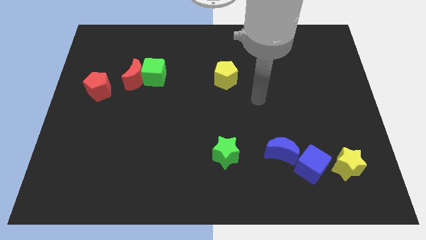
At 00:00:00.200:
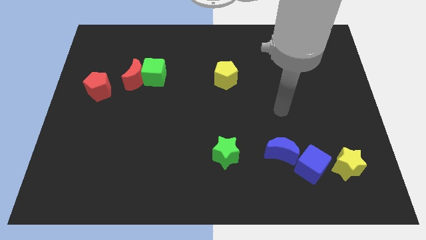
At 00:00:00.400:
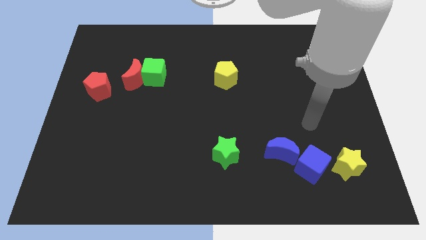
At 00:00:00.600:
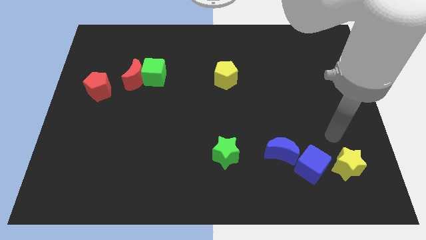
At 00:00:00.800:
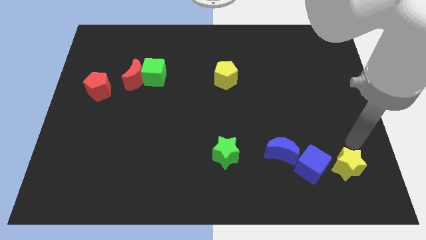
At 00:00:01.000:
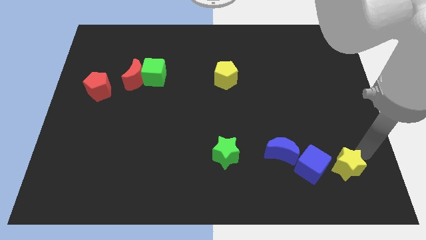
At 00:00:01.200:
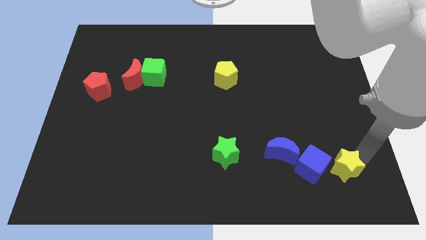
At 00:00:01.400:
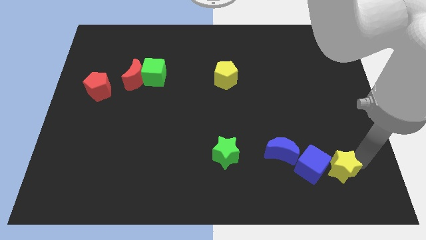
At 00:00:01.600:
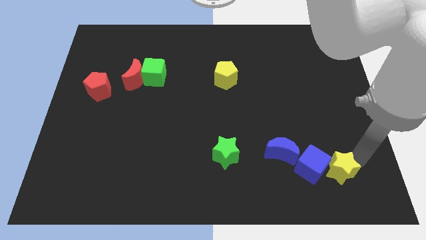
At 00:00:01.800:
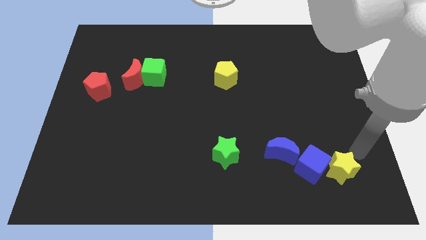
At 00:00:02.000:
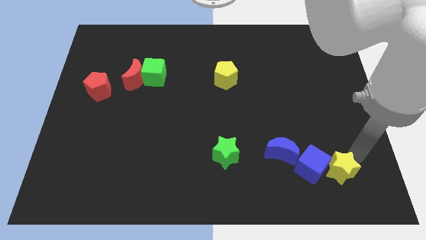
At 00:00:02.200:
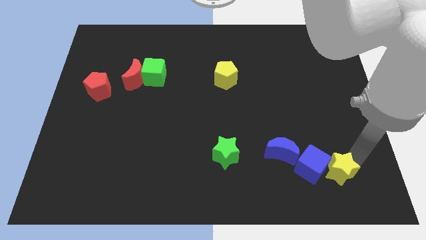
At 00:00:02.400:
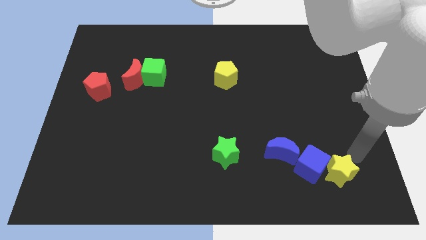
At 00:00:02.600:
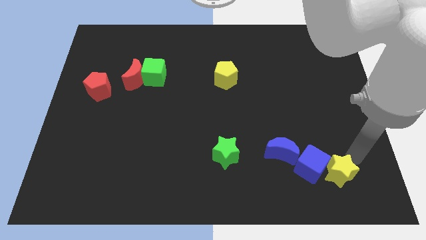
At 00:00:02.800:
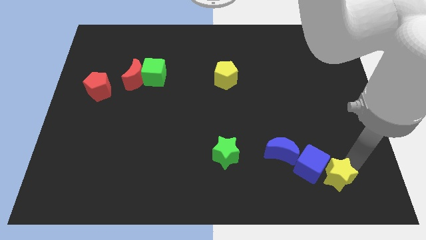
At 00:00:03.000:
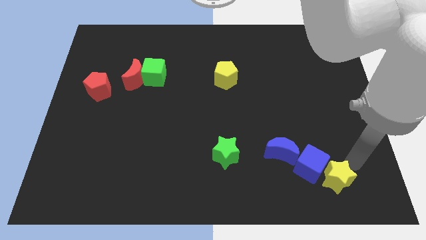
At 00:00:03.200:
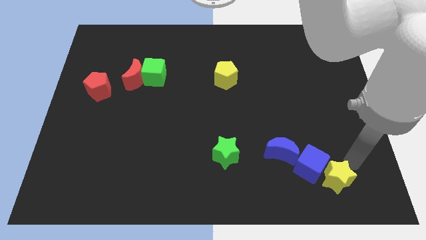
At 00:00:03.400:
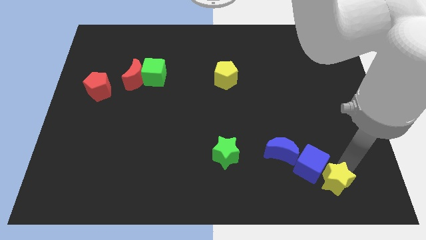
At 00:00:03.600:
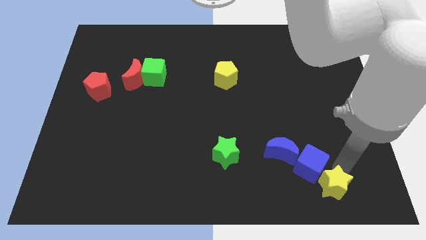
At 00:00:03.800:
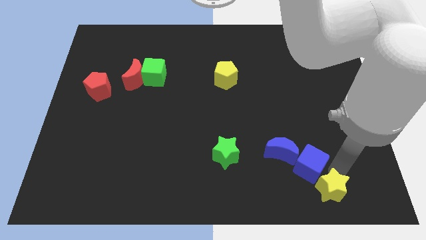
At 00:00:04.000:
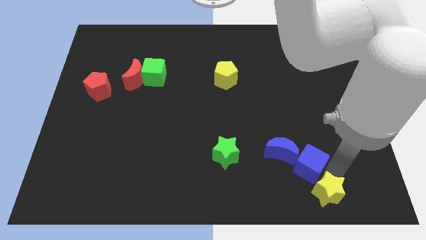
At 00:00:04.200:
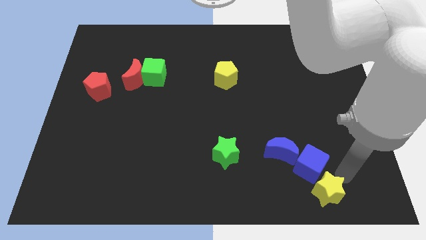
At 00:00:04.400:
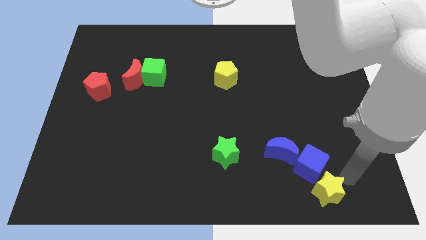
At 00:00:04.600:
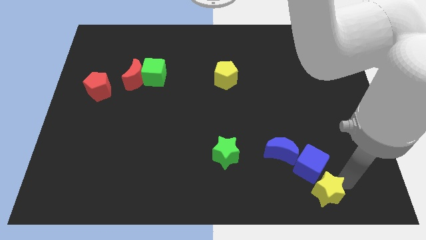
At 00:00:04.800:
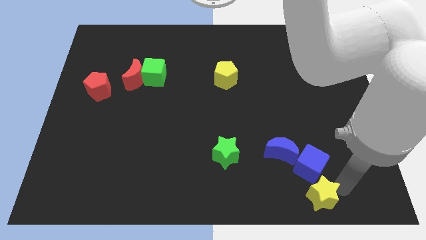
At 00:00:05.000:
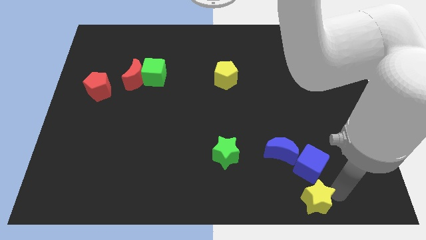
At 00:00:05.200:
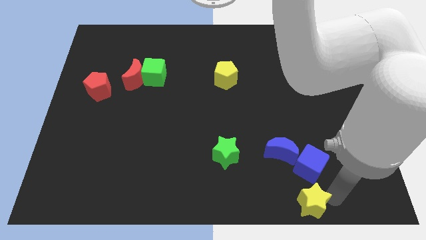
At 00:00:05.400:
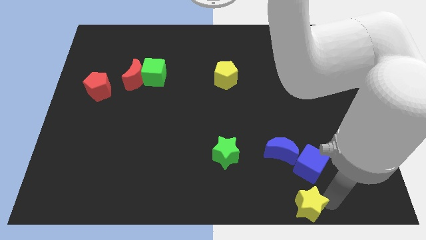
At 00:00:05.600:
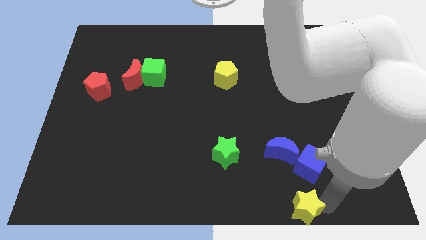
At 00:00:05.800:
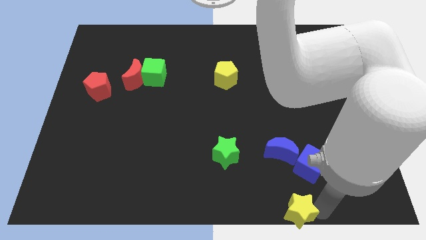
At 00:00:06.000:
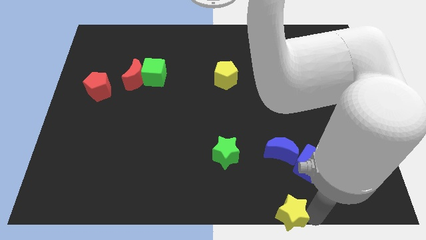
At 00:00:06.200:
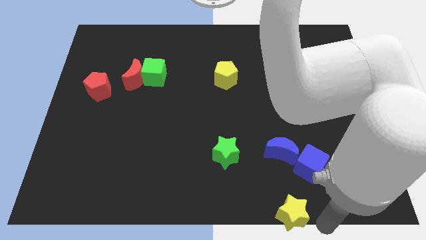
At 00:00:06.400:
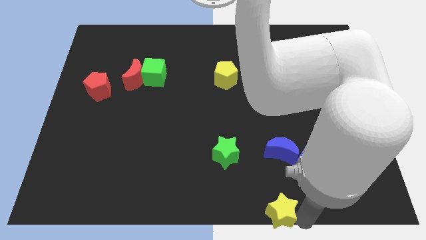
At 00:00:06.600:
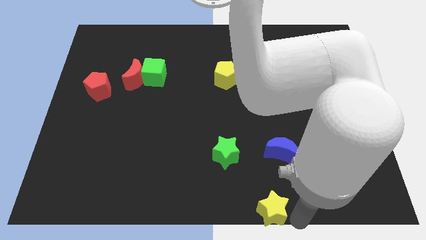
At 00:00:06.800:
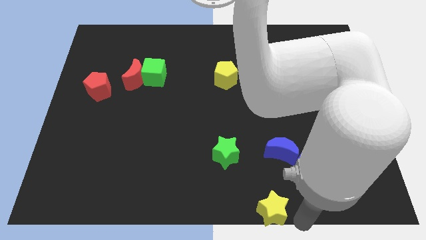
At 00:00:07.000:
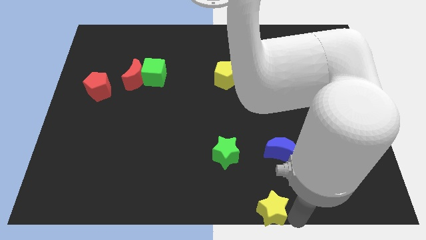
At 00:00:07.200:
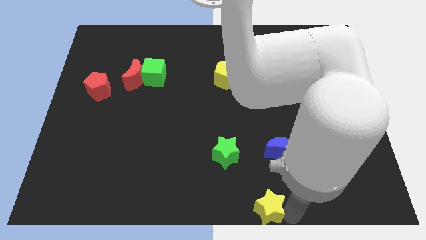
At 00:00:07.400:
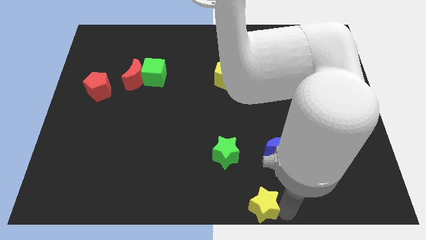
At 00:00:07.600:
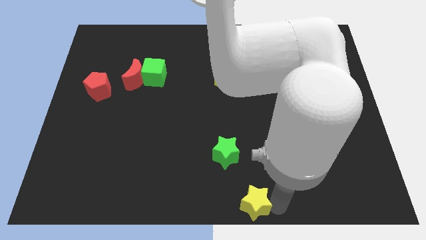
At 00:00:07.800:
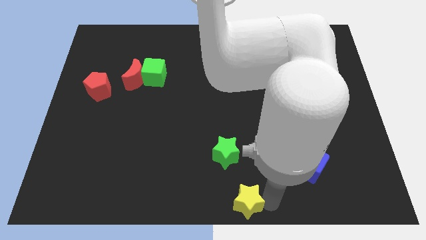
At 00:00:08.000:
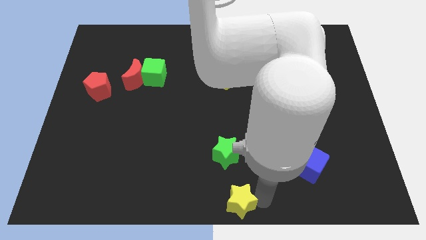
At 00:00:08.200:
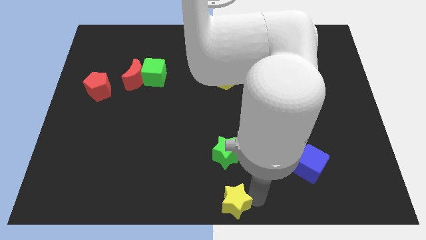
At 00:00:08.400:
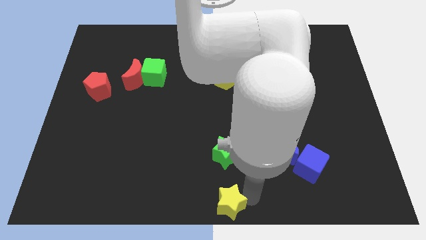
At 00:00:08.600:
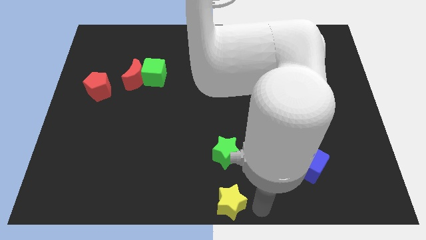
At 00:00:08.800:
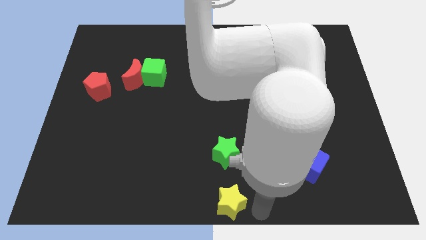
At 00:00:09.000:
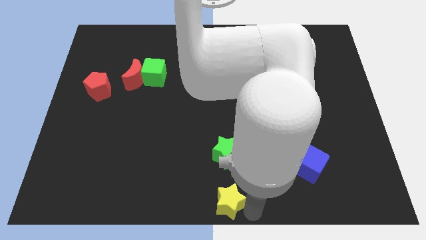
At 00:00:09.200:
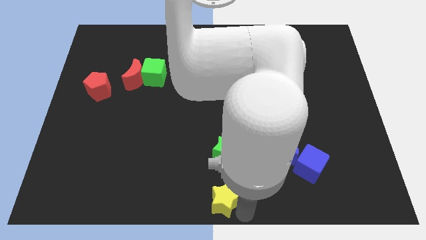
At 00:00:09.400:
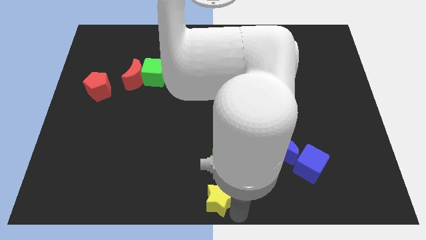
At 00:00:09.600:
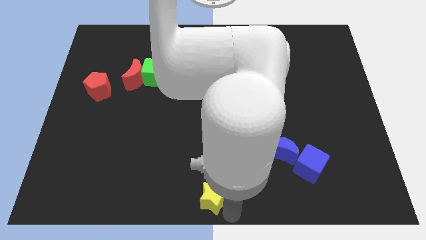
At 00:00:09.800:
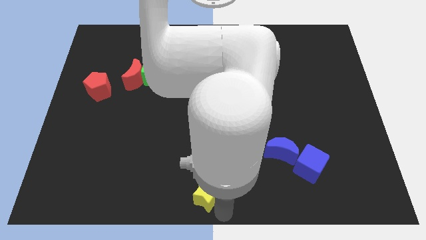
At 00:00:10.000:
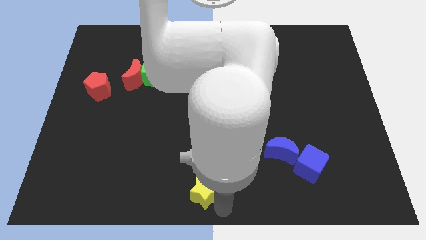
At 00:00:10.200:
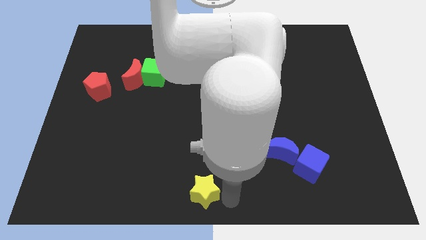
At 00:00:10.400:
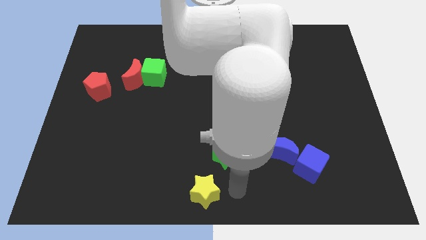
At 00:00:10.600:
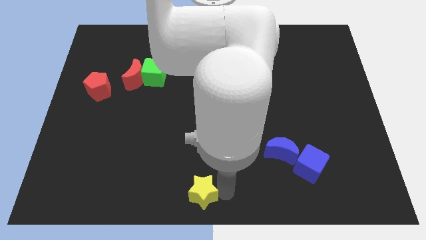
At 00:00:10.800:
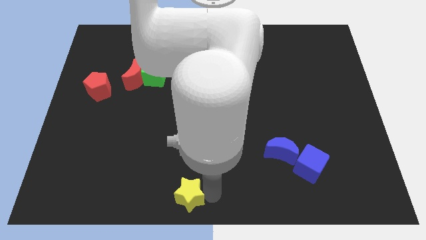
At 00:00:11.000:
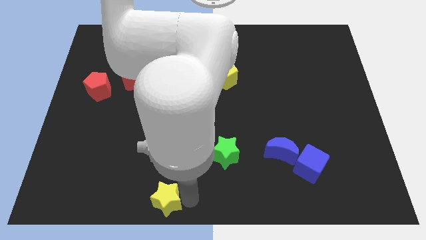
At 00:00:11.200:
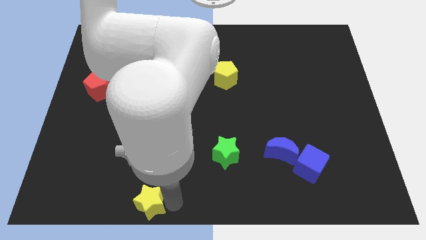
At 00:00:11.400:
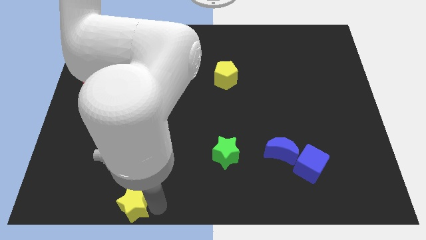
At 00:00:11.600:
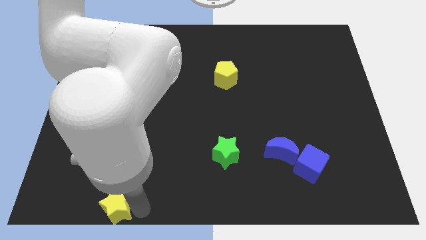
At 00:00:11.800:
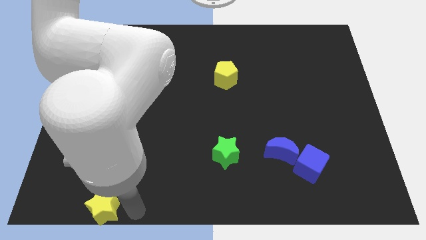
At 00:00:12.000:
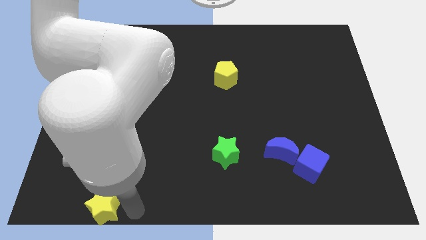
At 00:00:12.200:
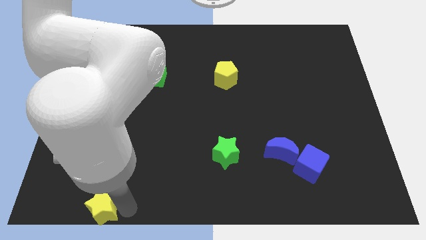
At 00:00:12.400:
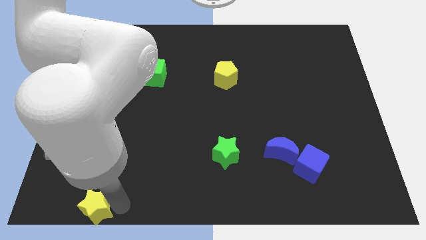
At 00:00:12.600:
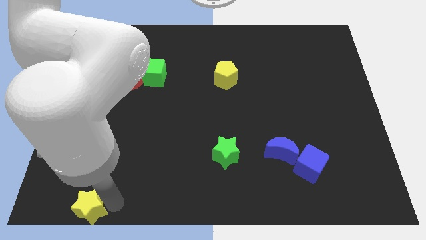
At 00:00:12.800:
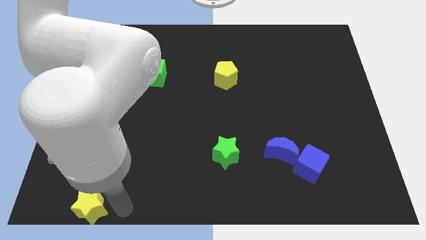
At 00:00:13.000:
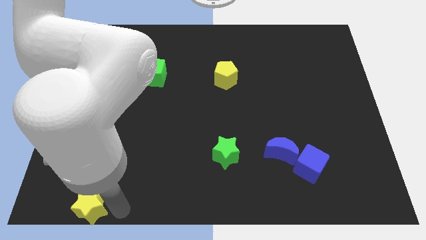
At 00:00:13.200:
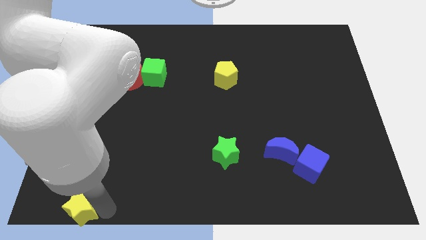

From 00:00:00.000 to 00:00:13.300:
push the yellow star to the bottom left
